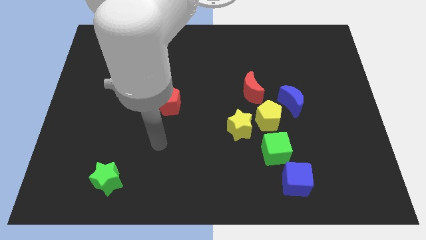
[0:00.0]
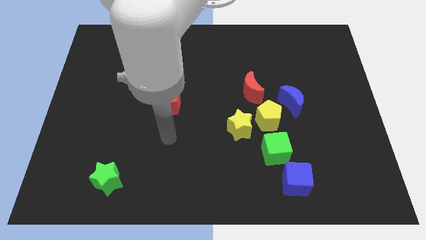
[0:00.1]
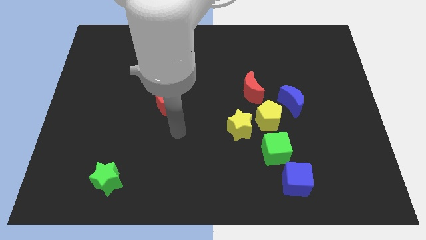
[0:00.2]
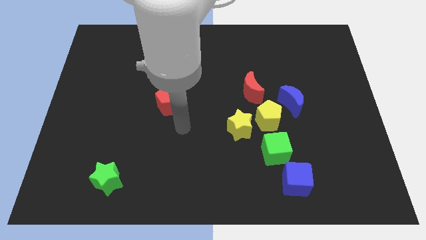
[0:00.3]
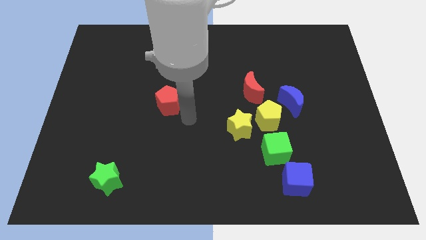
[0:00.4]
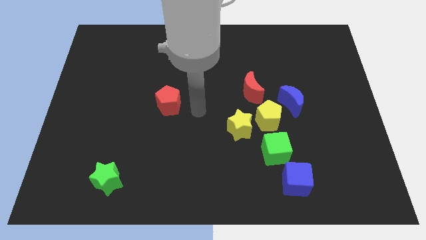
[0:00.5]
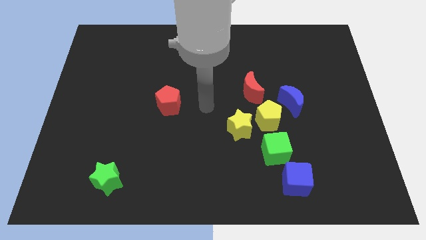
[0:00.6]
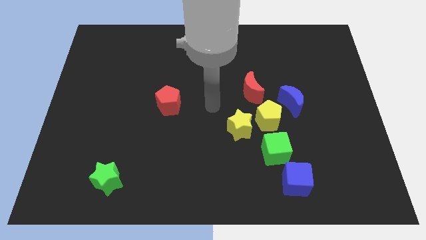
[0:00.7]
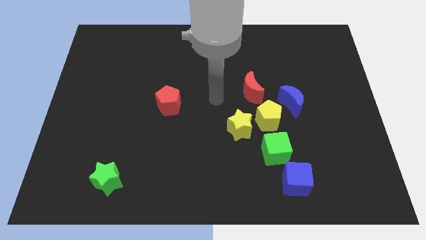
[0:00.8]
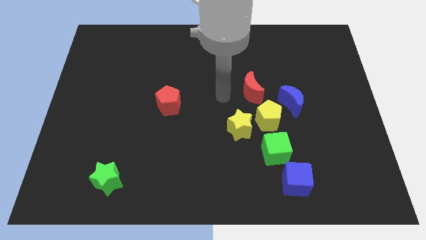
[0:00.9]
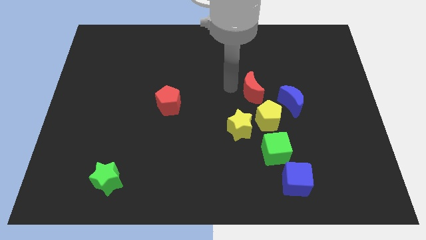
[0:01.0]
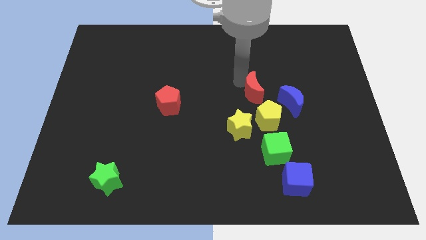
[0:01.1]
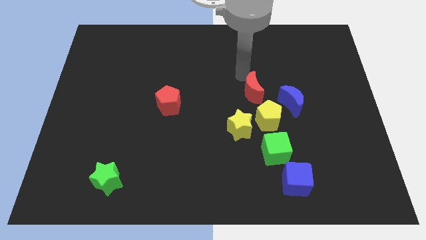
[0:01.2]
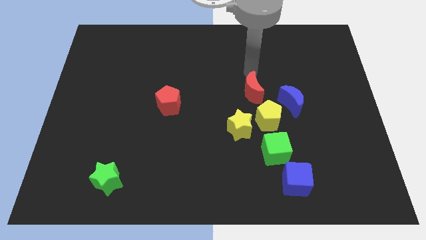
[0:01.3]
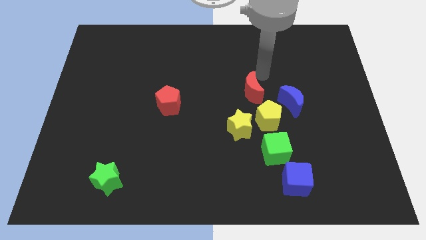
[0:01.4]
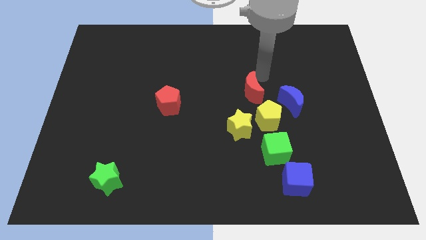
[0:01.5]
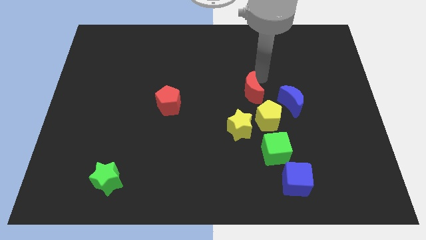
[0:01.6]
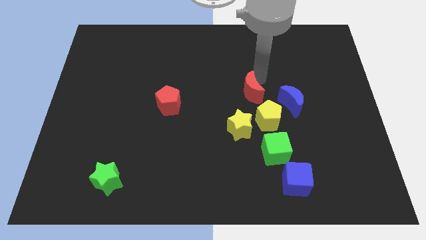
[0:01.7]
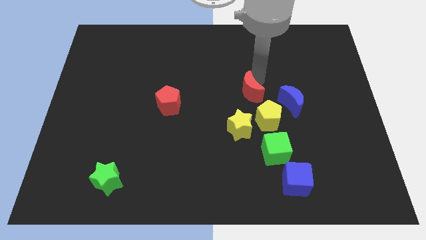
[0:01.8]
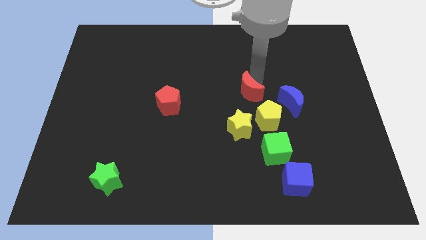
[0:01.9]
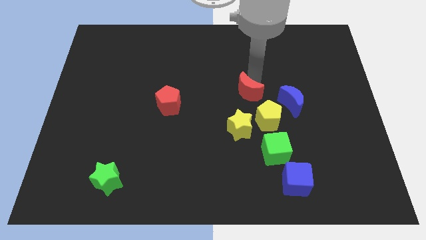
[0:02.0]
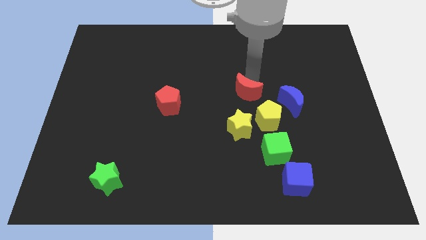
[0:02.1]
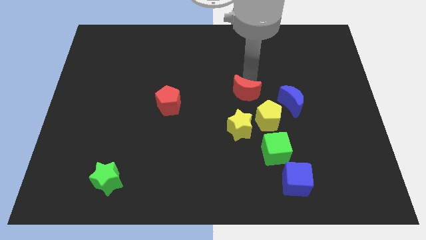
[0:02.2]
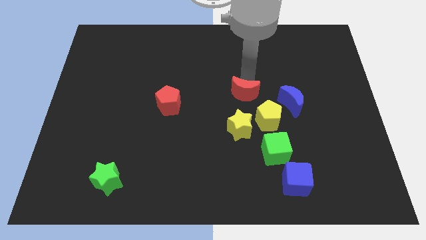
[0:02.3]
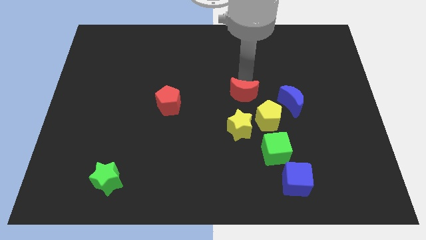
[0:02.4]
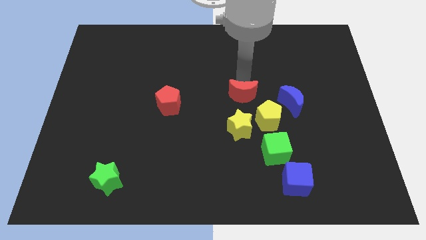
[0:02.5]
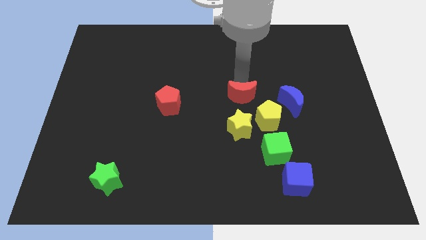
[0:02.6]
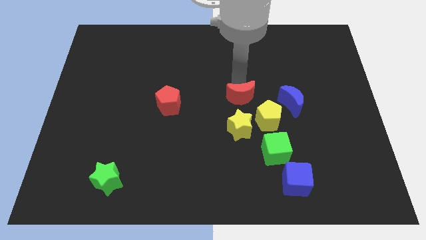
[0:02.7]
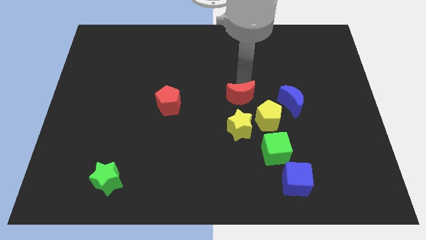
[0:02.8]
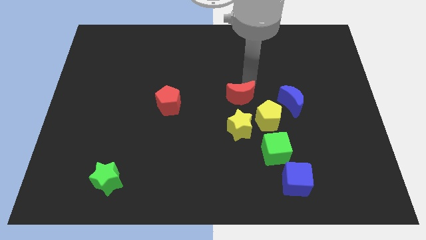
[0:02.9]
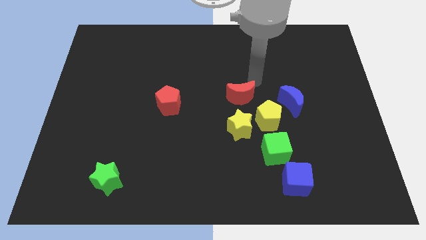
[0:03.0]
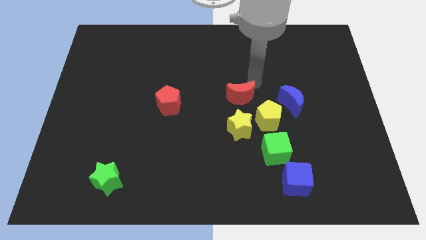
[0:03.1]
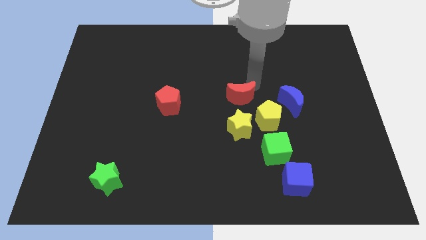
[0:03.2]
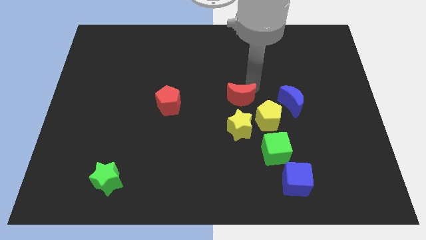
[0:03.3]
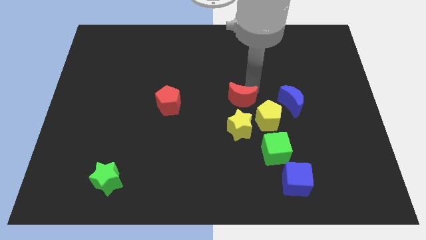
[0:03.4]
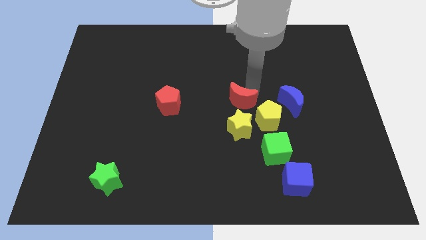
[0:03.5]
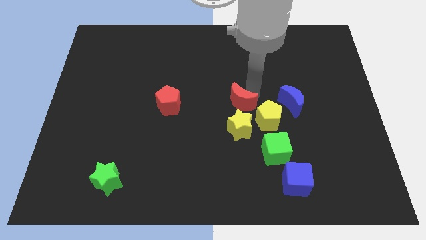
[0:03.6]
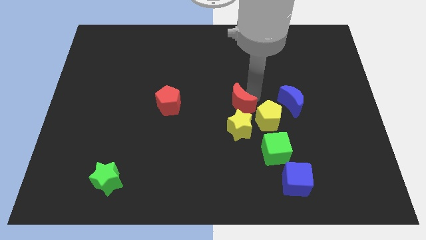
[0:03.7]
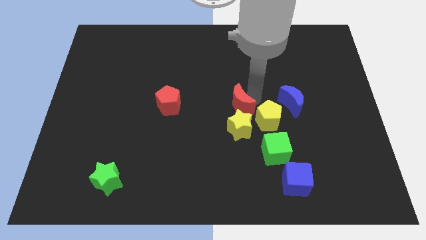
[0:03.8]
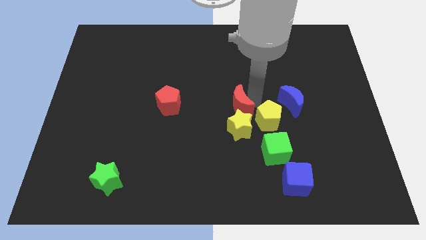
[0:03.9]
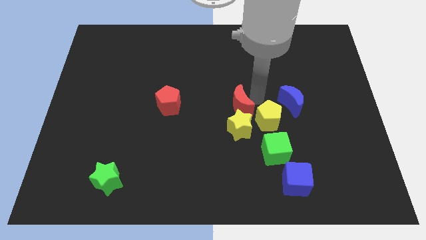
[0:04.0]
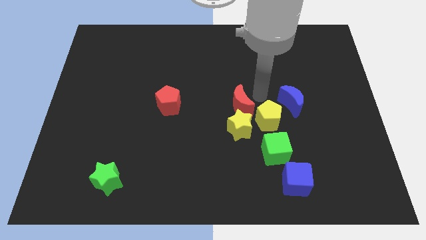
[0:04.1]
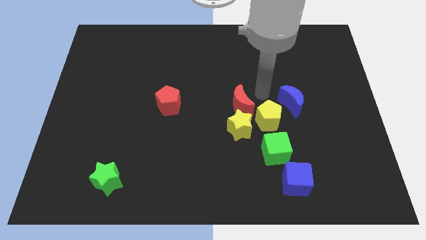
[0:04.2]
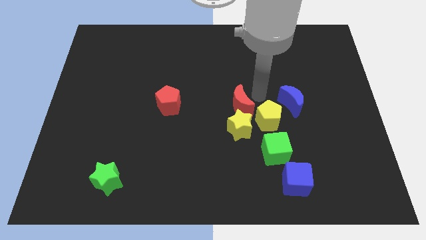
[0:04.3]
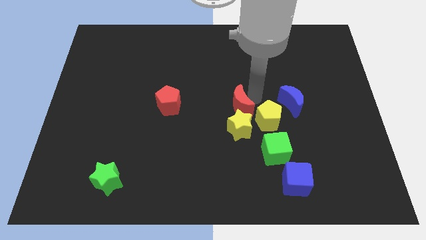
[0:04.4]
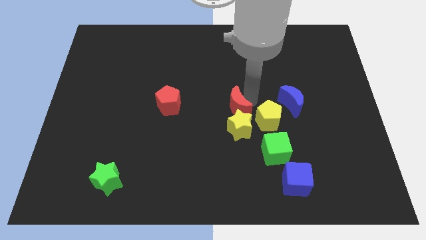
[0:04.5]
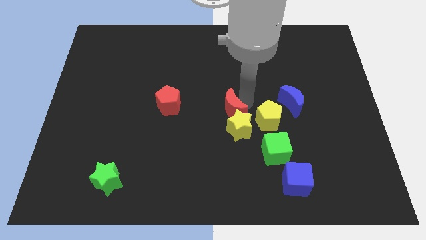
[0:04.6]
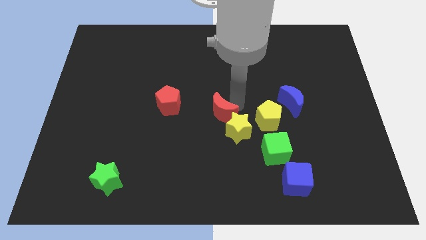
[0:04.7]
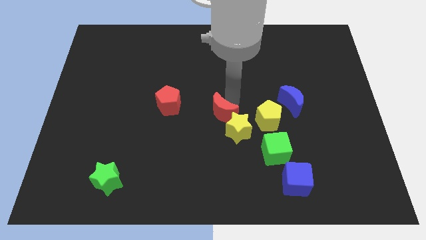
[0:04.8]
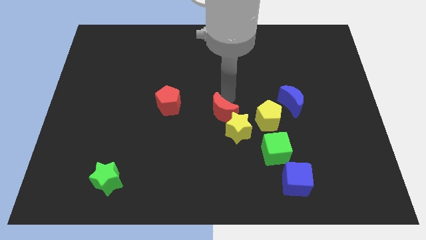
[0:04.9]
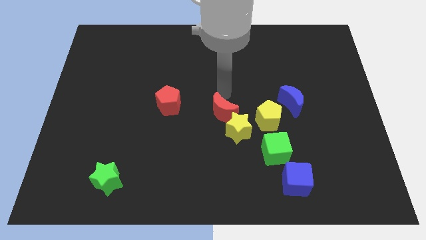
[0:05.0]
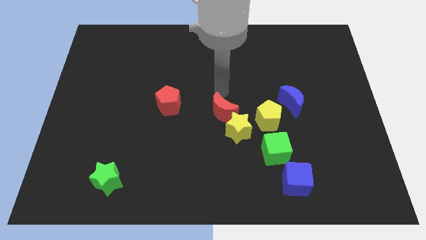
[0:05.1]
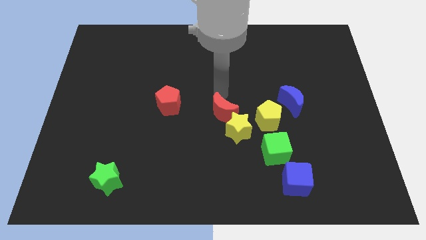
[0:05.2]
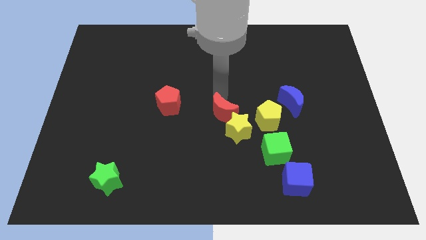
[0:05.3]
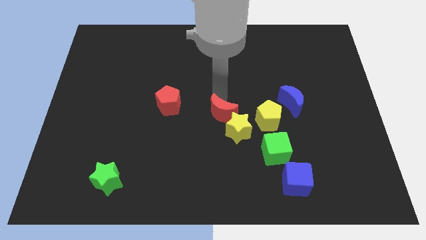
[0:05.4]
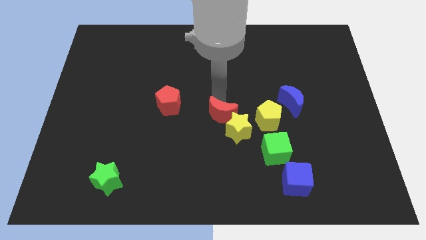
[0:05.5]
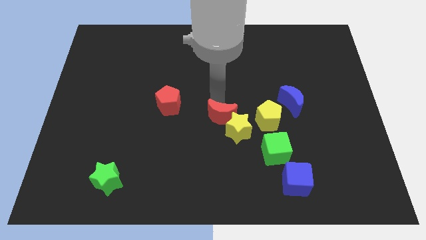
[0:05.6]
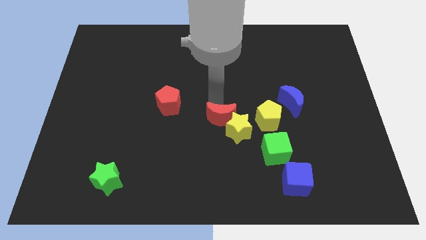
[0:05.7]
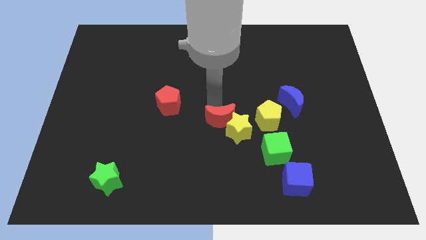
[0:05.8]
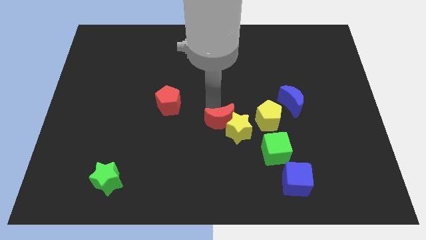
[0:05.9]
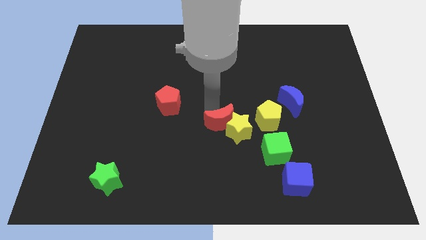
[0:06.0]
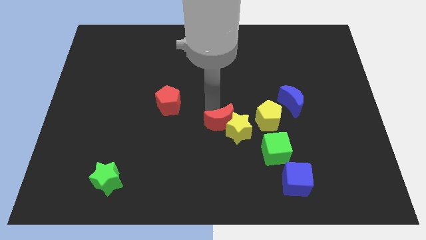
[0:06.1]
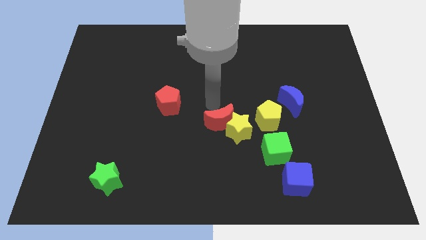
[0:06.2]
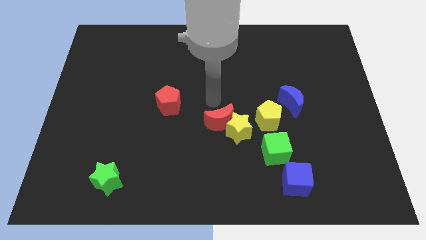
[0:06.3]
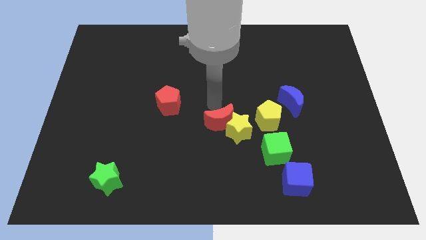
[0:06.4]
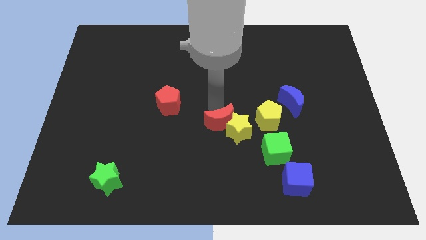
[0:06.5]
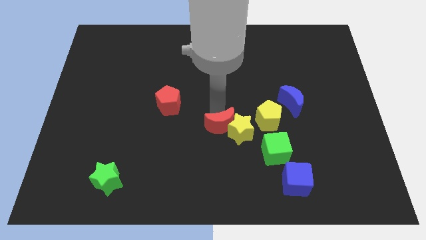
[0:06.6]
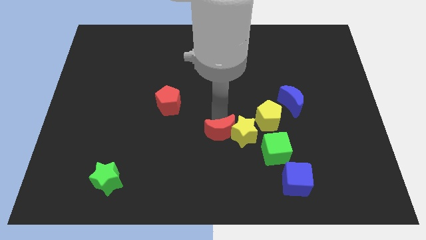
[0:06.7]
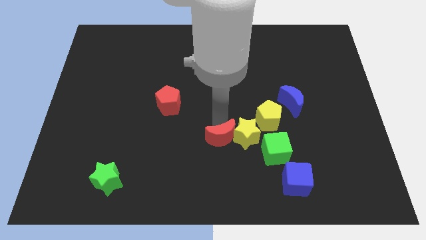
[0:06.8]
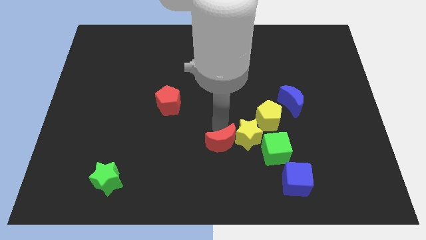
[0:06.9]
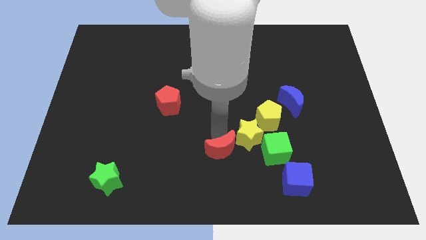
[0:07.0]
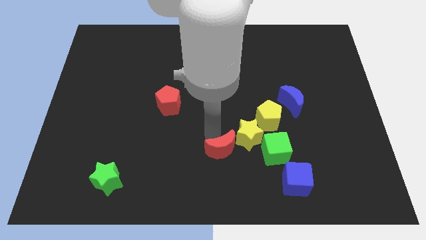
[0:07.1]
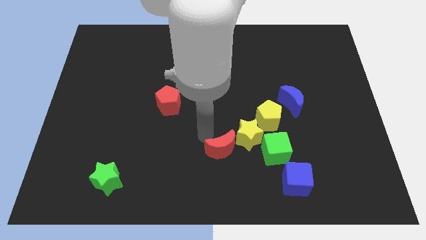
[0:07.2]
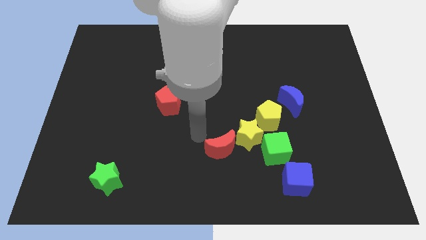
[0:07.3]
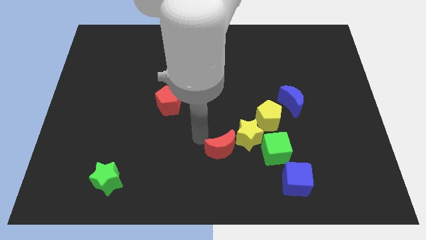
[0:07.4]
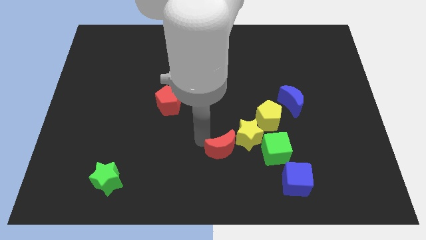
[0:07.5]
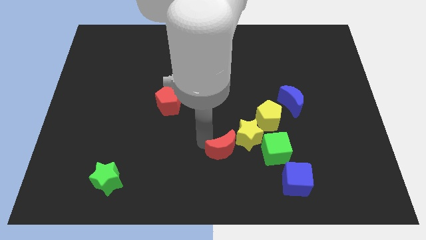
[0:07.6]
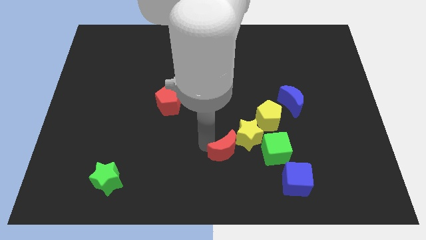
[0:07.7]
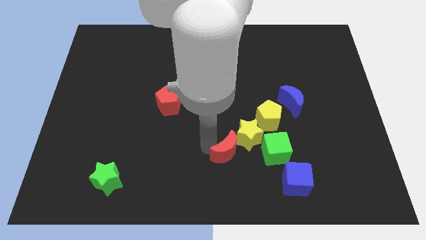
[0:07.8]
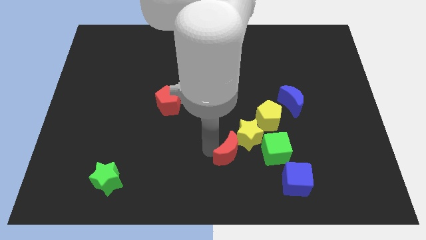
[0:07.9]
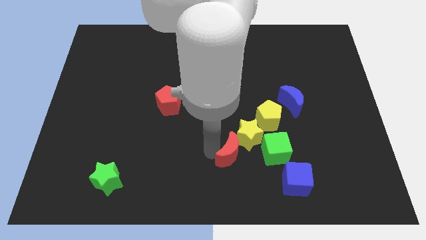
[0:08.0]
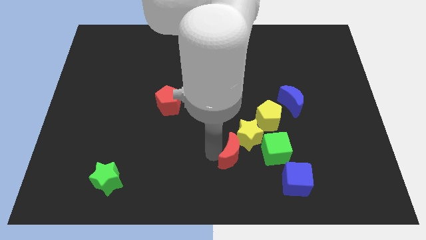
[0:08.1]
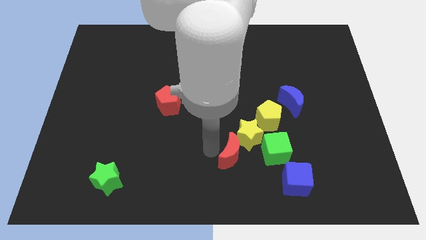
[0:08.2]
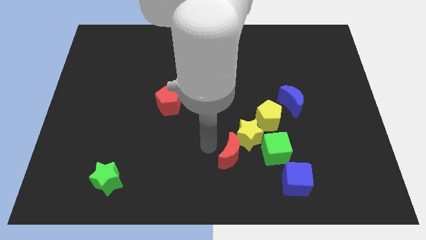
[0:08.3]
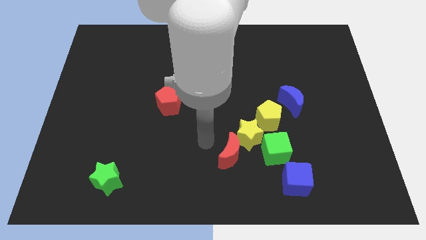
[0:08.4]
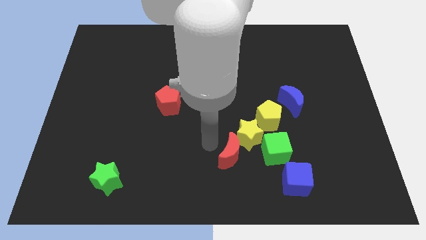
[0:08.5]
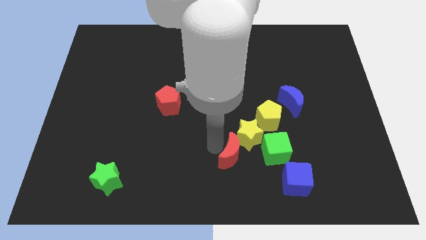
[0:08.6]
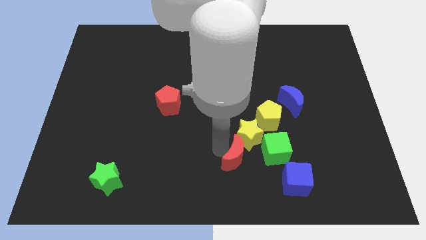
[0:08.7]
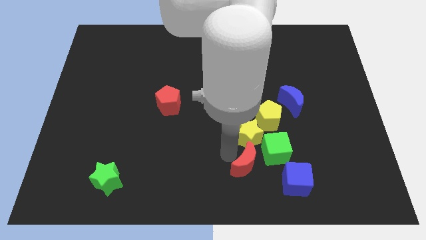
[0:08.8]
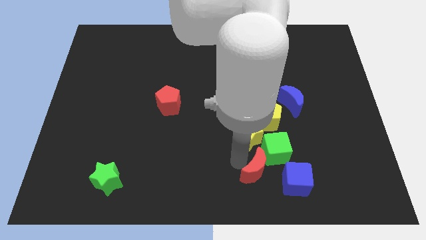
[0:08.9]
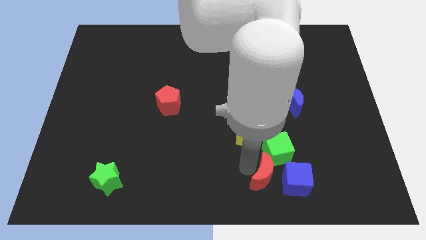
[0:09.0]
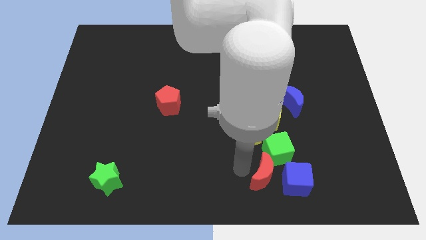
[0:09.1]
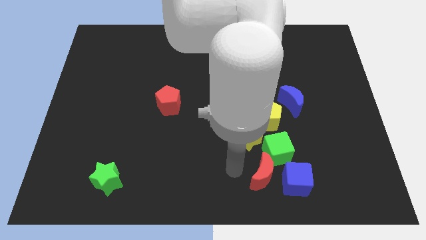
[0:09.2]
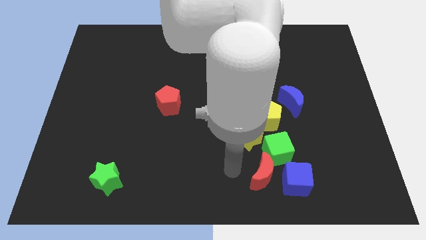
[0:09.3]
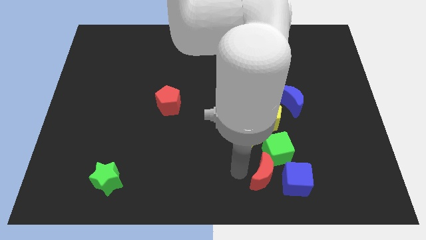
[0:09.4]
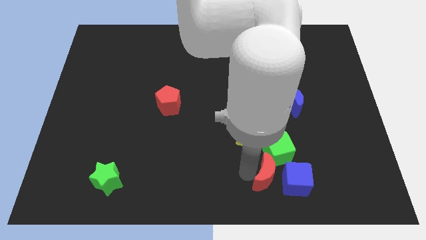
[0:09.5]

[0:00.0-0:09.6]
push the red moon to the blue cube
